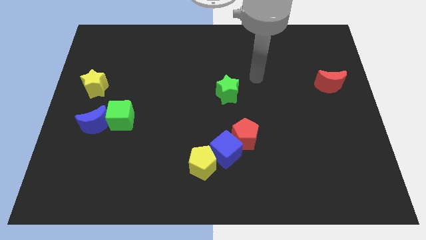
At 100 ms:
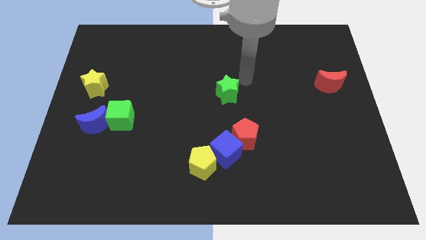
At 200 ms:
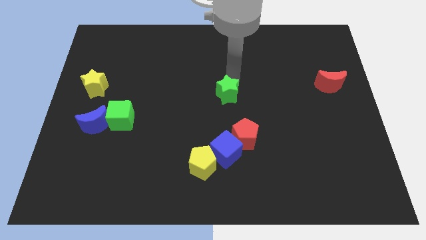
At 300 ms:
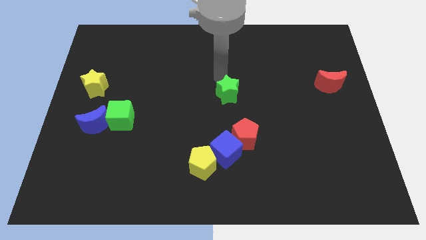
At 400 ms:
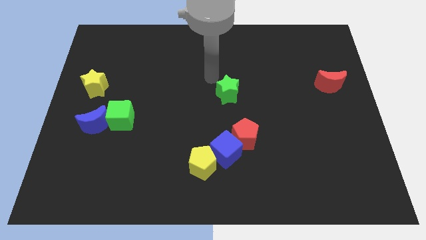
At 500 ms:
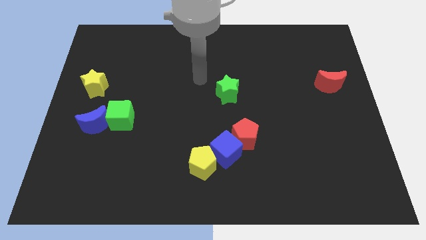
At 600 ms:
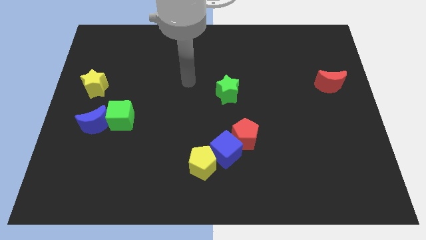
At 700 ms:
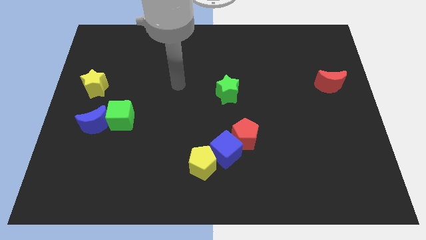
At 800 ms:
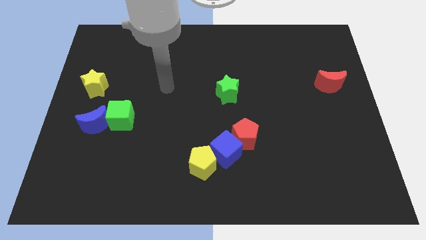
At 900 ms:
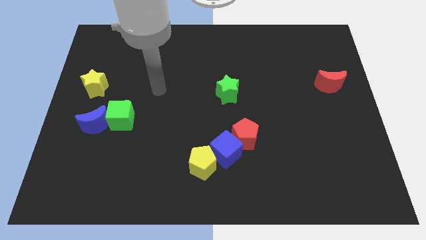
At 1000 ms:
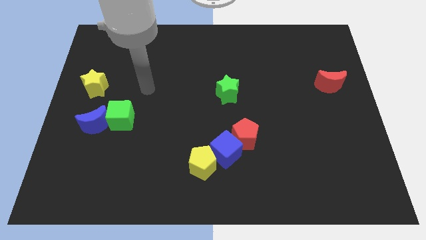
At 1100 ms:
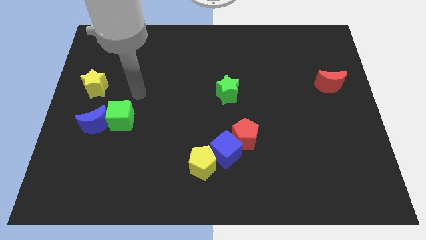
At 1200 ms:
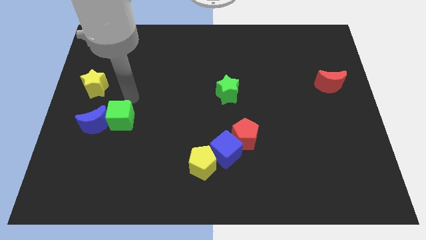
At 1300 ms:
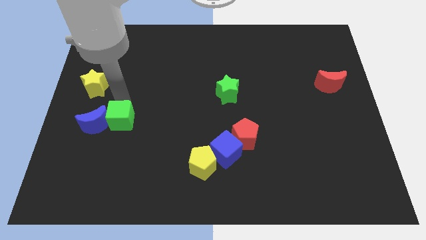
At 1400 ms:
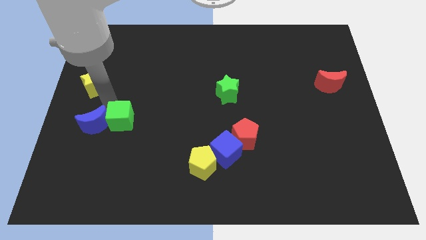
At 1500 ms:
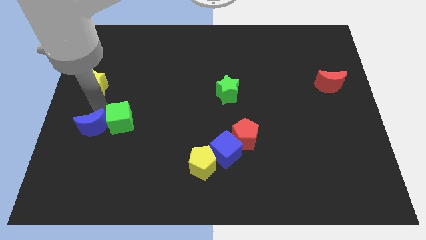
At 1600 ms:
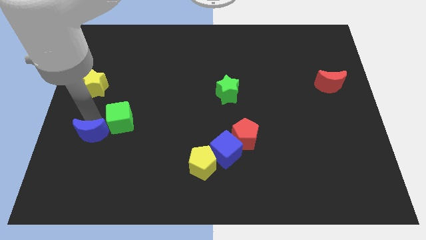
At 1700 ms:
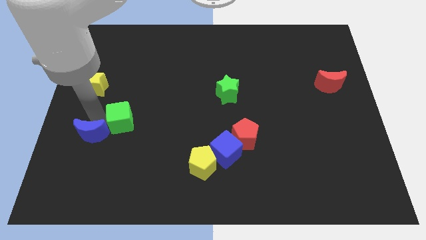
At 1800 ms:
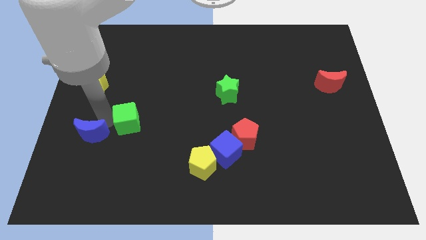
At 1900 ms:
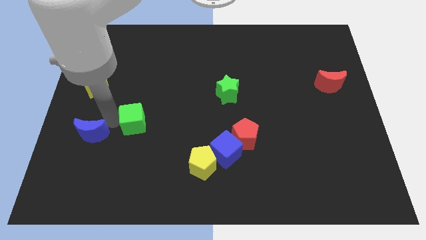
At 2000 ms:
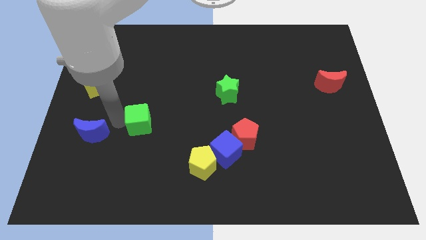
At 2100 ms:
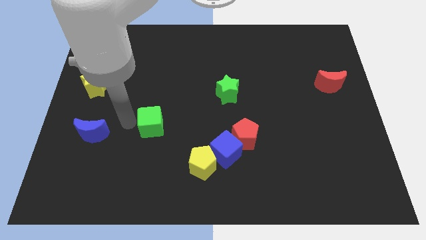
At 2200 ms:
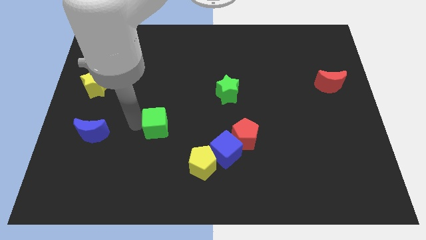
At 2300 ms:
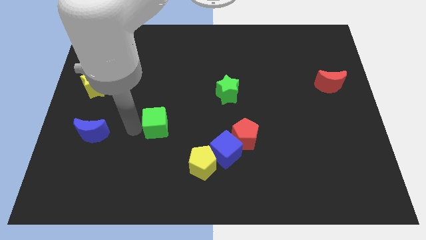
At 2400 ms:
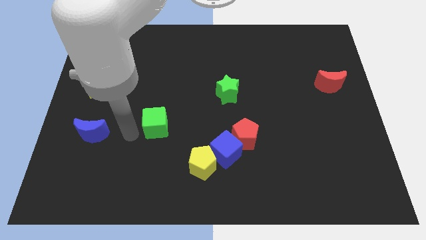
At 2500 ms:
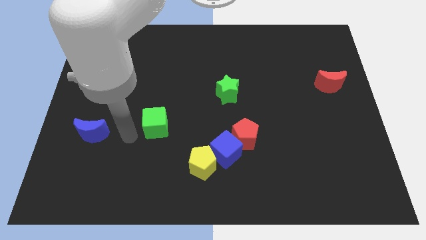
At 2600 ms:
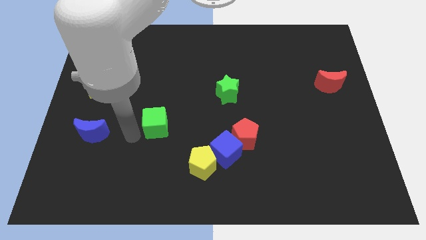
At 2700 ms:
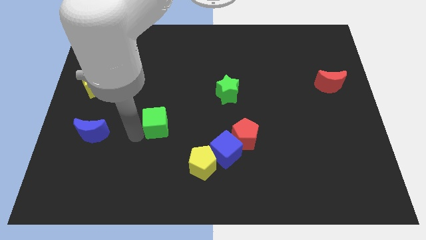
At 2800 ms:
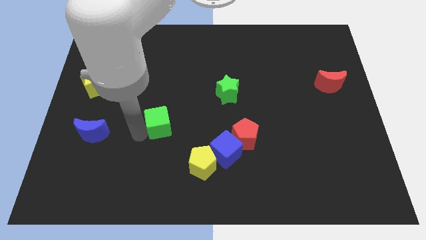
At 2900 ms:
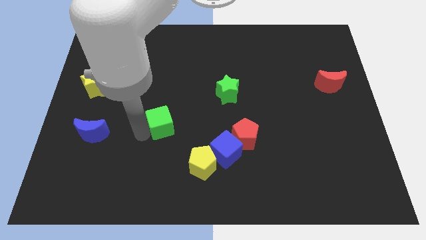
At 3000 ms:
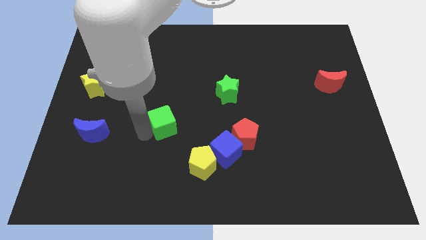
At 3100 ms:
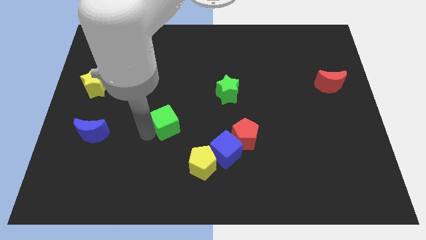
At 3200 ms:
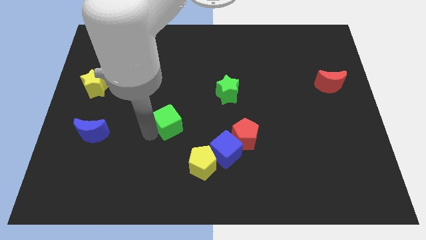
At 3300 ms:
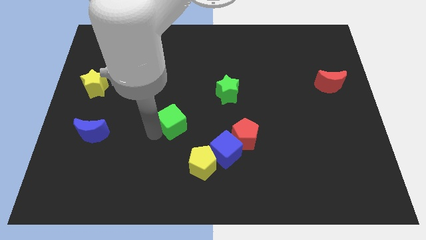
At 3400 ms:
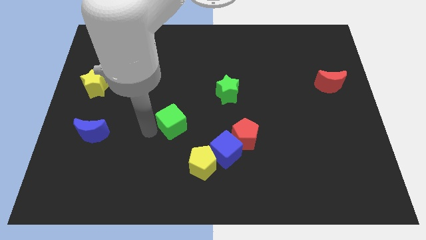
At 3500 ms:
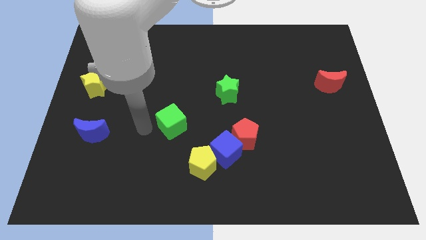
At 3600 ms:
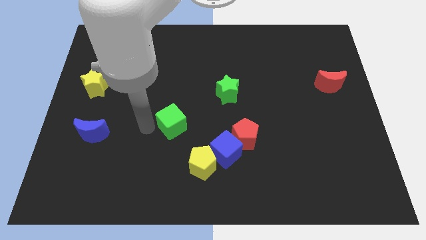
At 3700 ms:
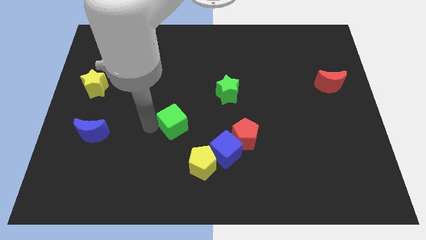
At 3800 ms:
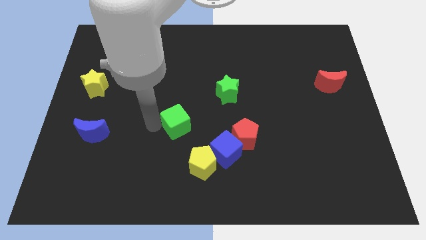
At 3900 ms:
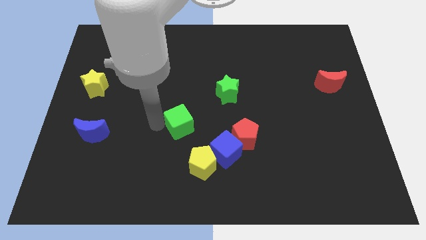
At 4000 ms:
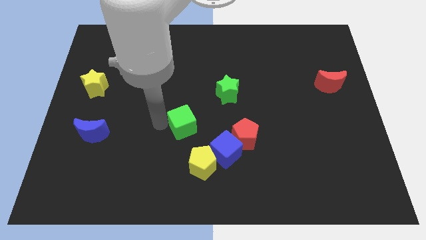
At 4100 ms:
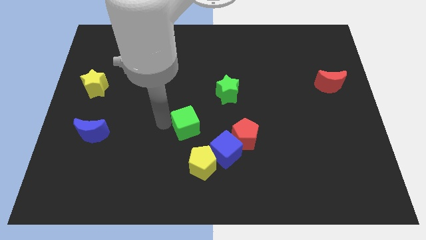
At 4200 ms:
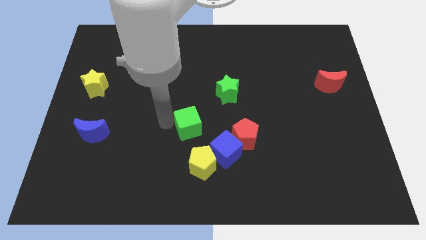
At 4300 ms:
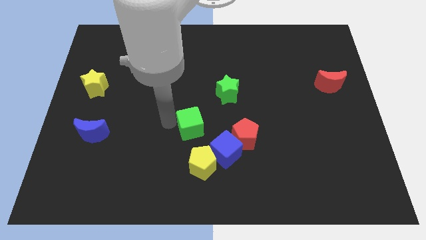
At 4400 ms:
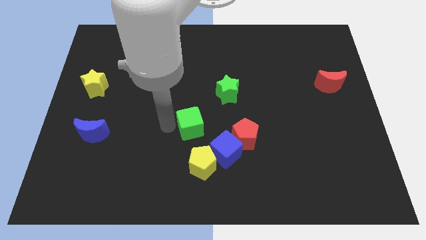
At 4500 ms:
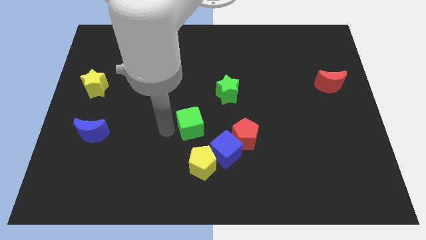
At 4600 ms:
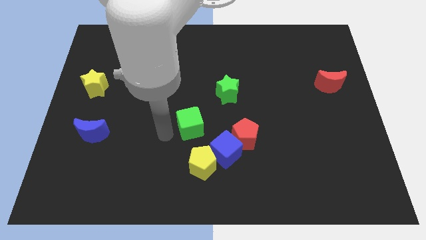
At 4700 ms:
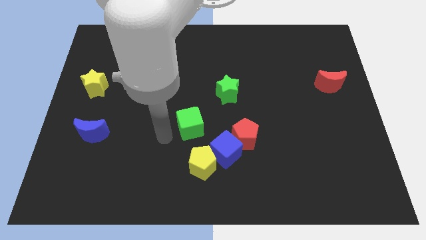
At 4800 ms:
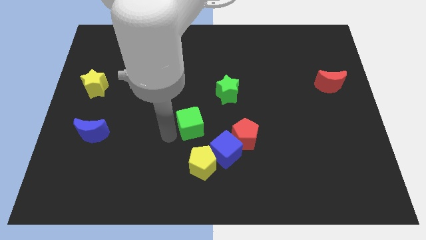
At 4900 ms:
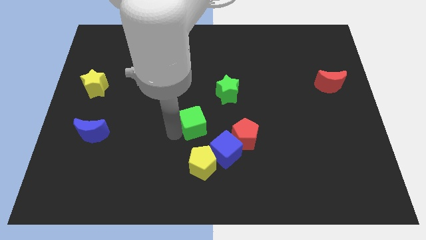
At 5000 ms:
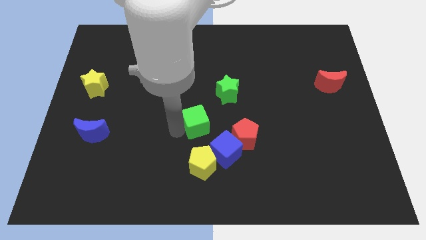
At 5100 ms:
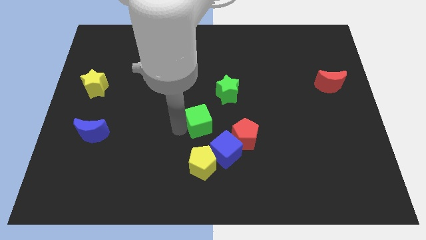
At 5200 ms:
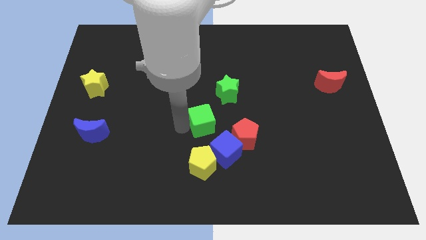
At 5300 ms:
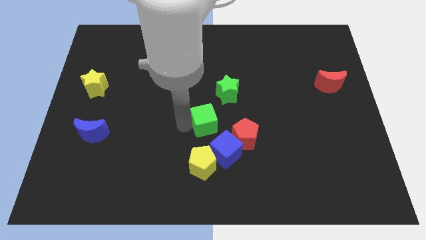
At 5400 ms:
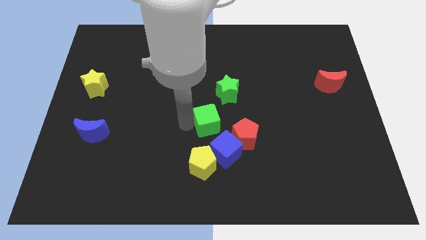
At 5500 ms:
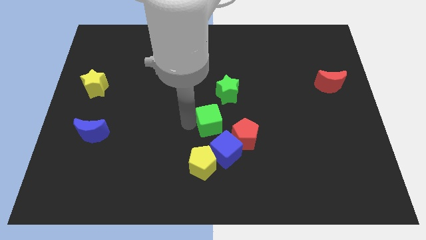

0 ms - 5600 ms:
push the green cube right

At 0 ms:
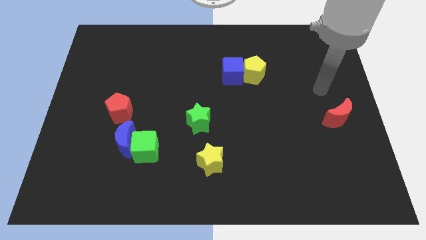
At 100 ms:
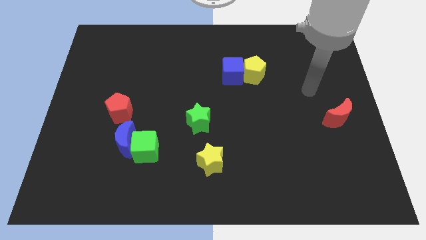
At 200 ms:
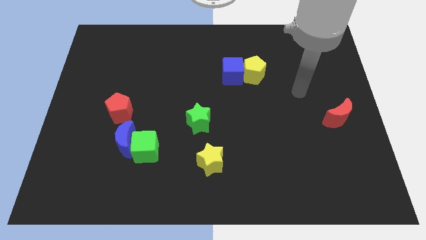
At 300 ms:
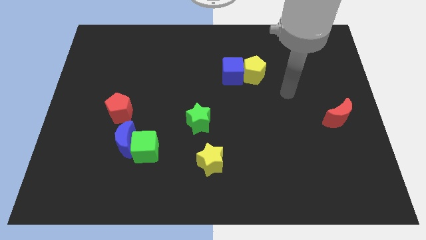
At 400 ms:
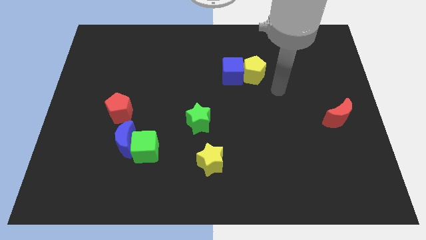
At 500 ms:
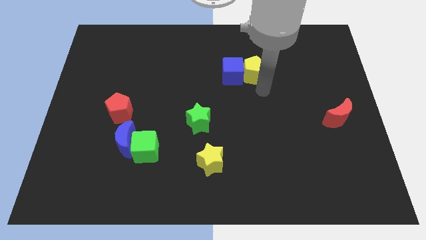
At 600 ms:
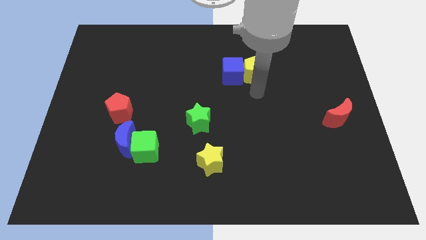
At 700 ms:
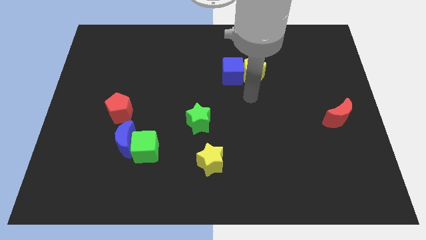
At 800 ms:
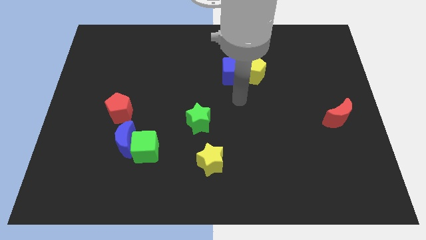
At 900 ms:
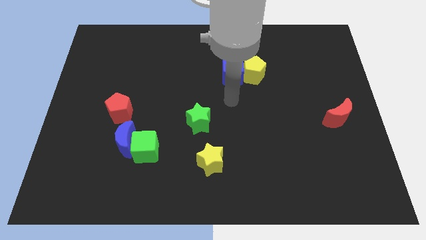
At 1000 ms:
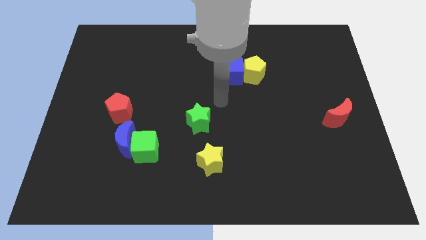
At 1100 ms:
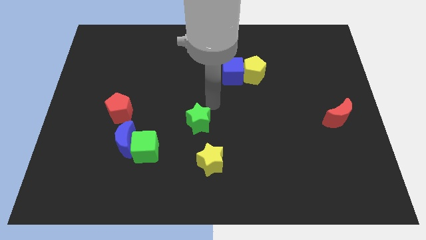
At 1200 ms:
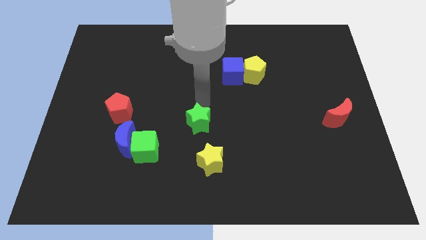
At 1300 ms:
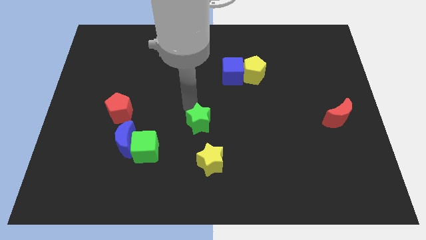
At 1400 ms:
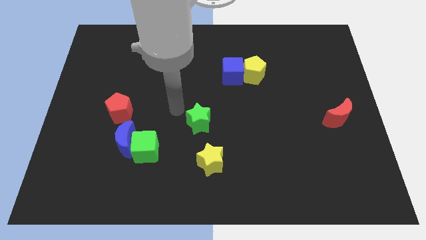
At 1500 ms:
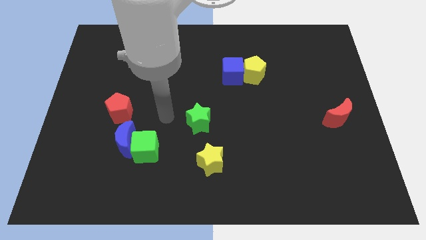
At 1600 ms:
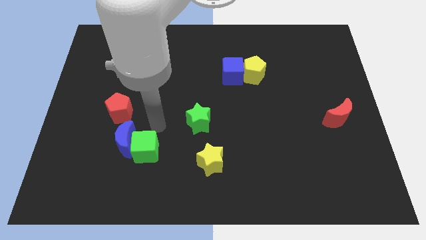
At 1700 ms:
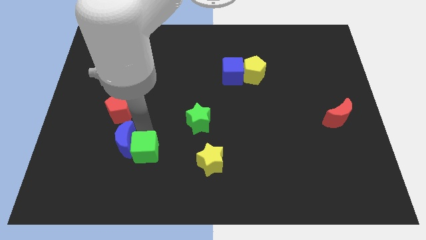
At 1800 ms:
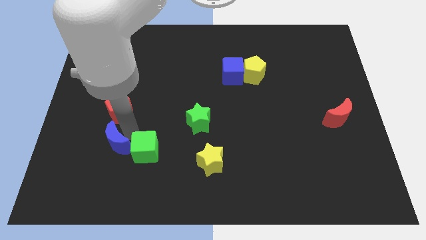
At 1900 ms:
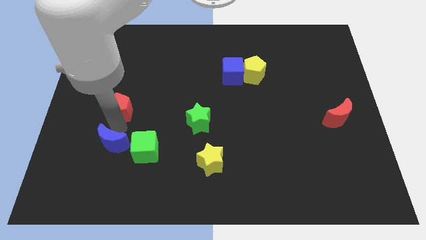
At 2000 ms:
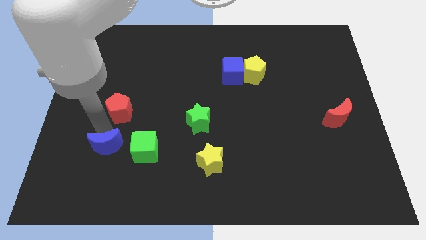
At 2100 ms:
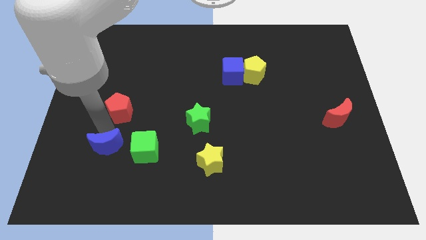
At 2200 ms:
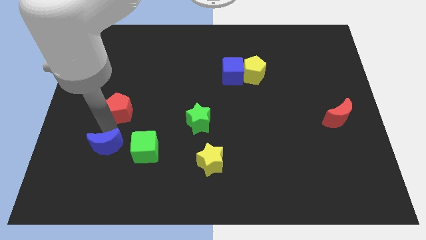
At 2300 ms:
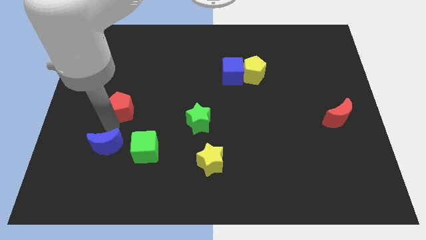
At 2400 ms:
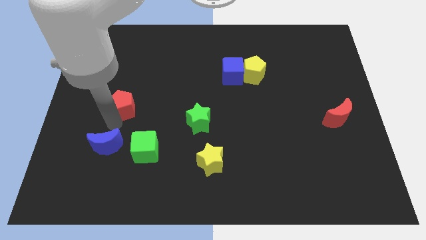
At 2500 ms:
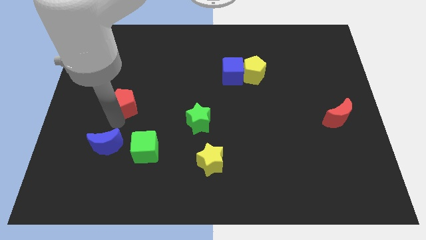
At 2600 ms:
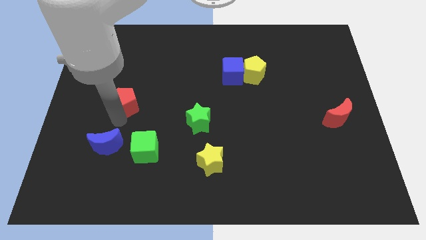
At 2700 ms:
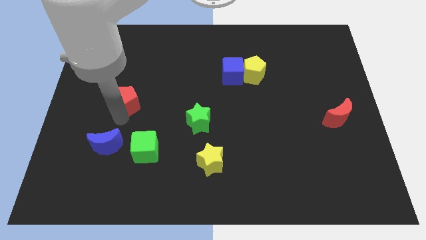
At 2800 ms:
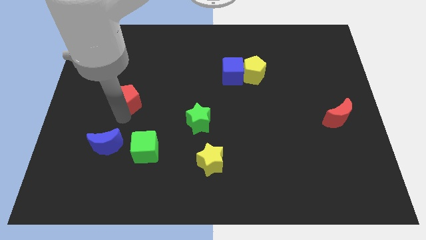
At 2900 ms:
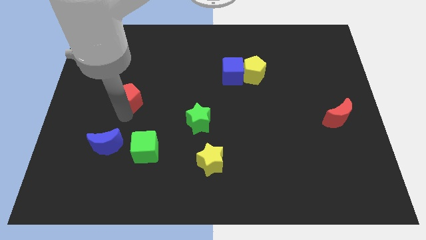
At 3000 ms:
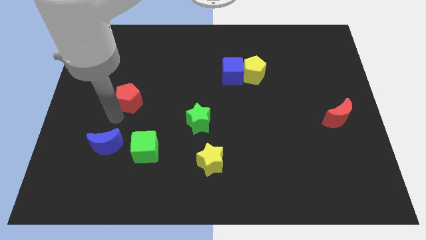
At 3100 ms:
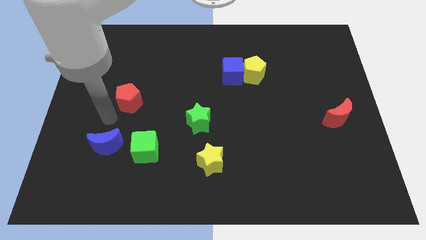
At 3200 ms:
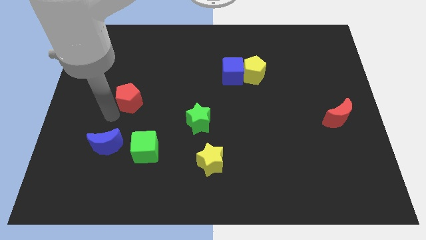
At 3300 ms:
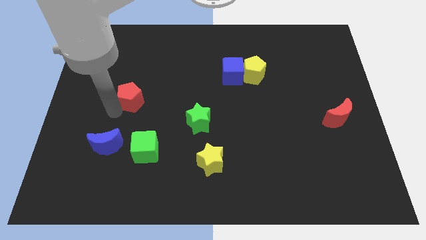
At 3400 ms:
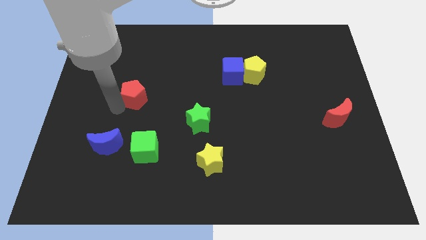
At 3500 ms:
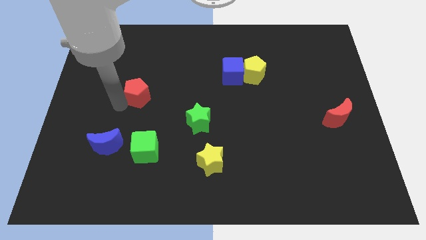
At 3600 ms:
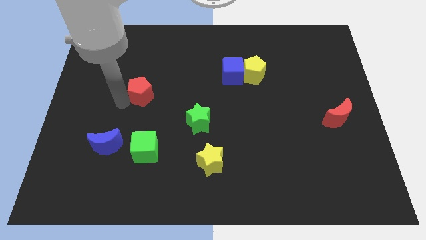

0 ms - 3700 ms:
slightly push the red pentagon diagonally upwards and to the right
